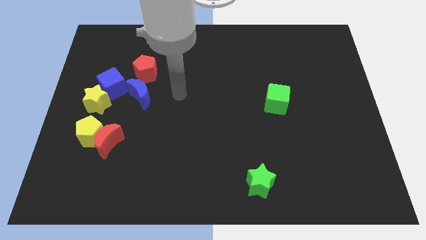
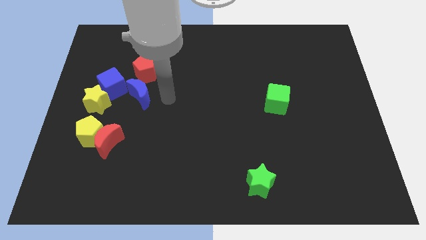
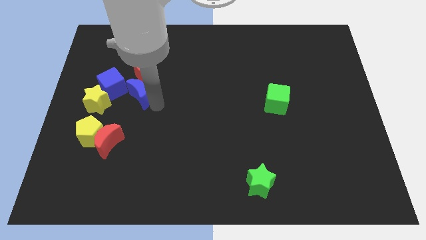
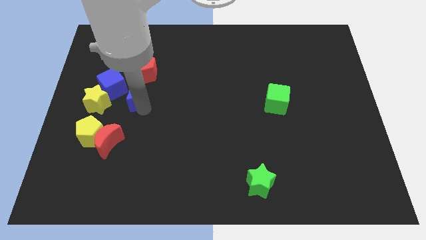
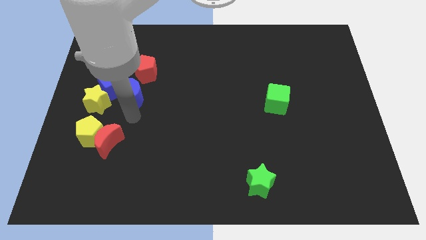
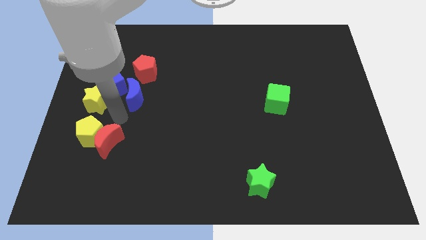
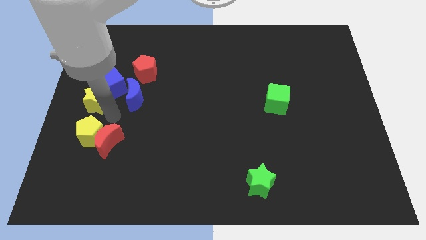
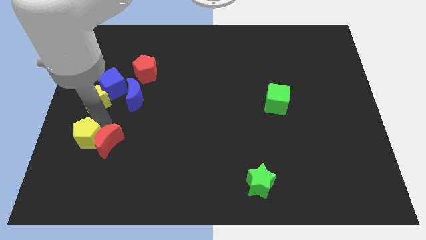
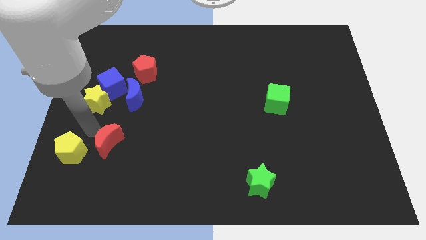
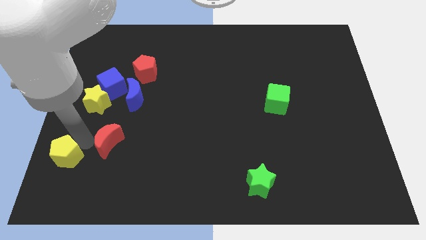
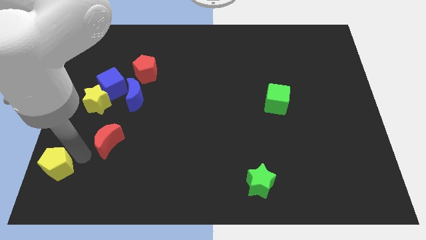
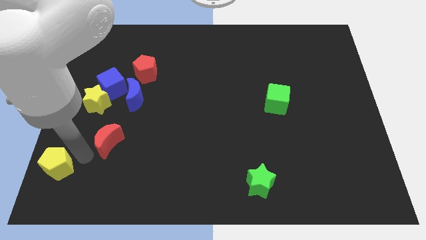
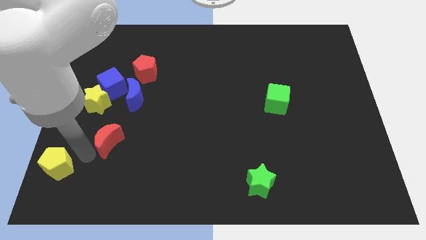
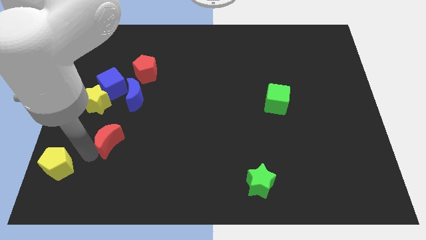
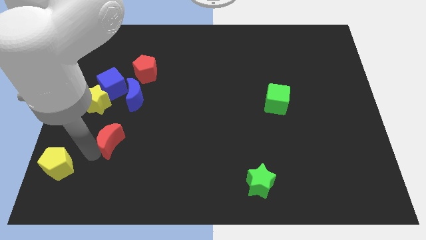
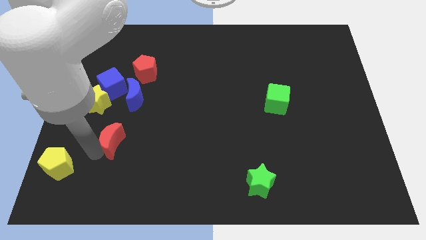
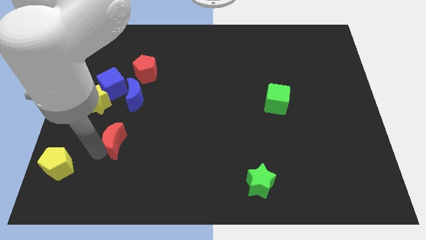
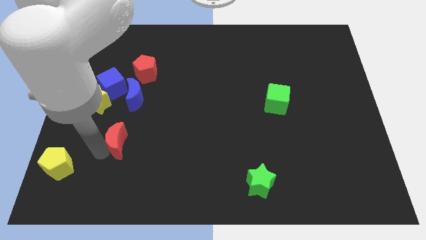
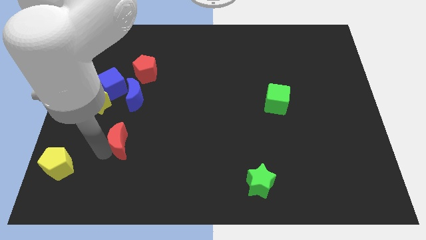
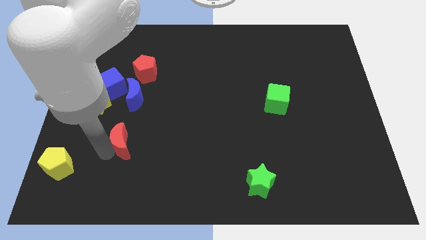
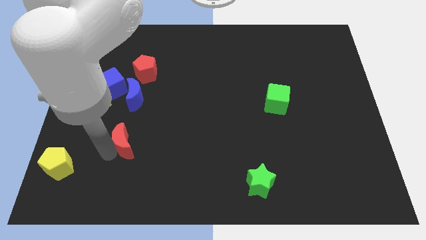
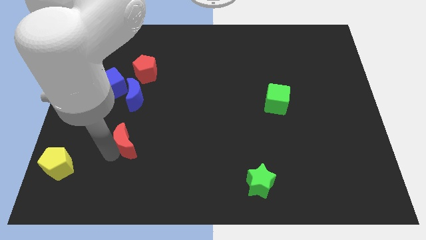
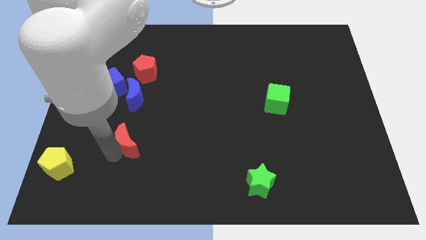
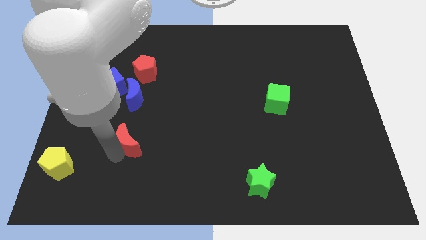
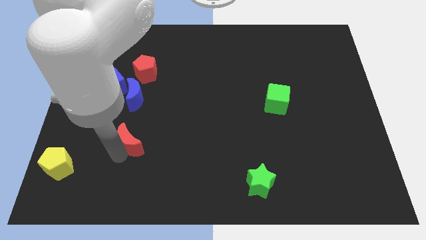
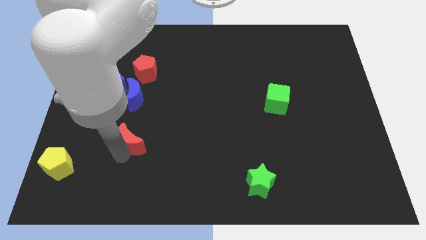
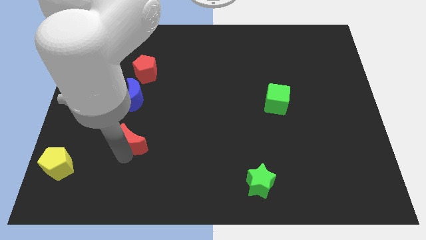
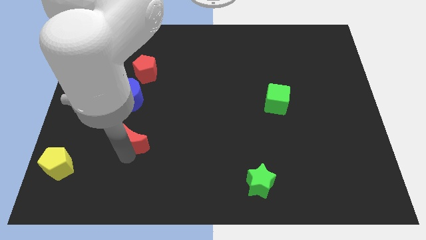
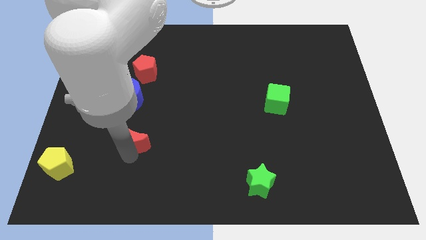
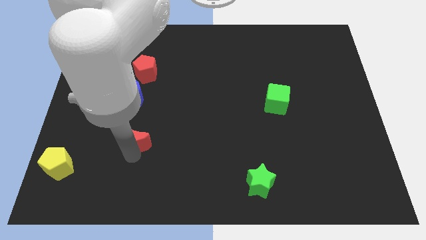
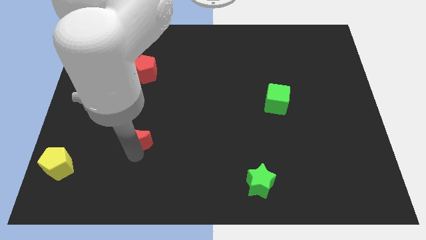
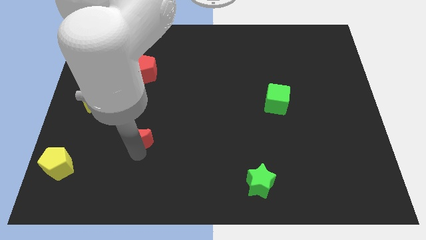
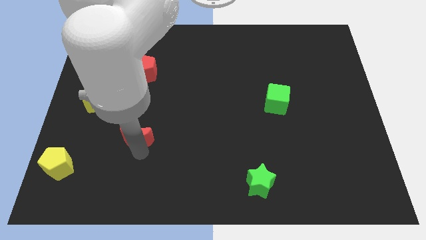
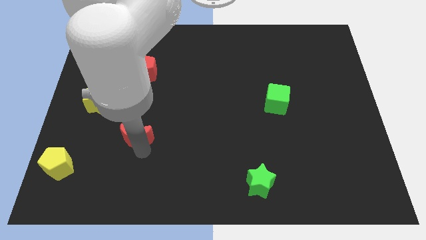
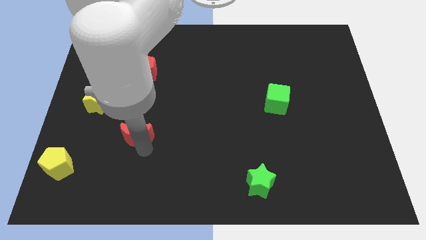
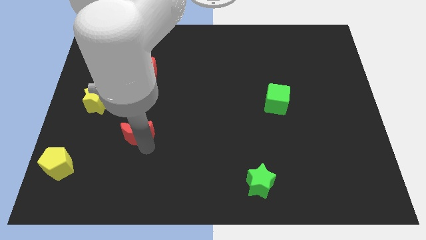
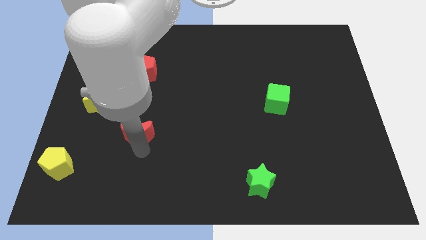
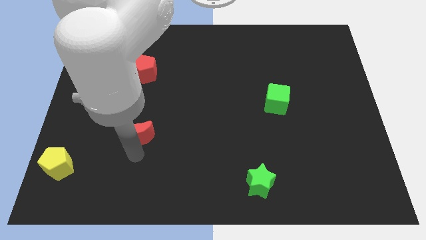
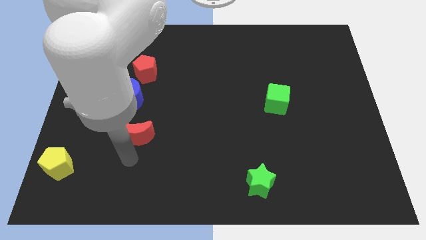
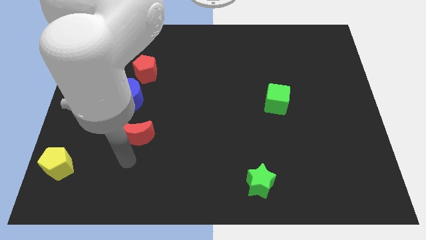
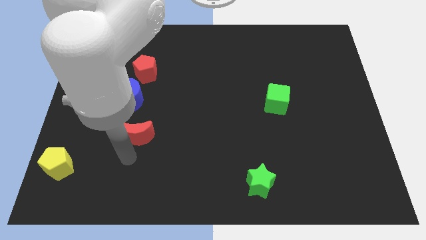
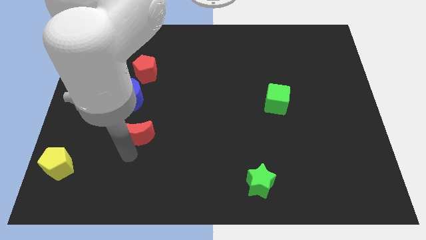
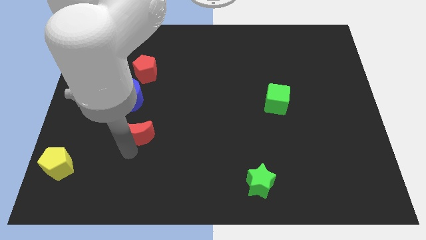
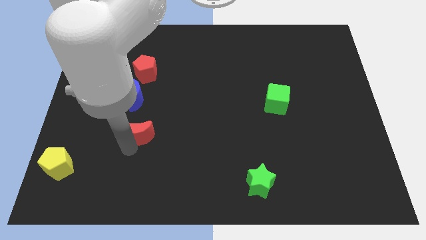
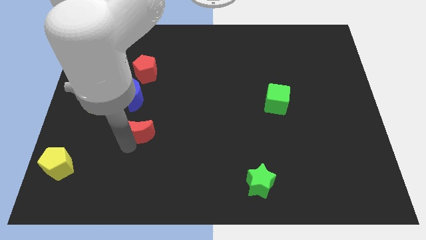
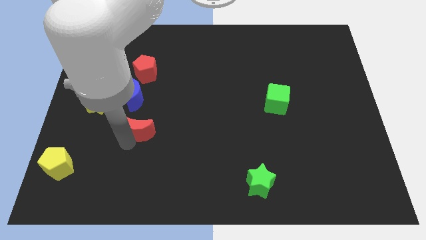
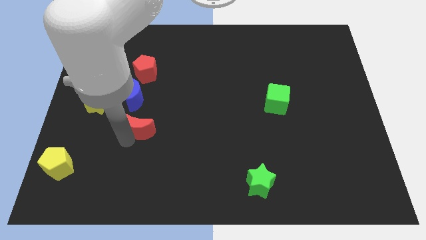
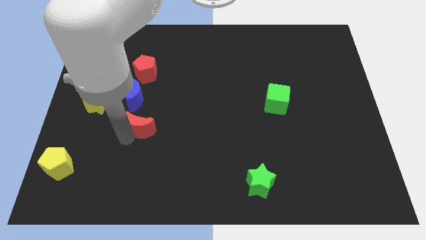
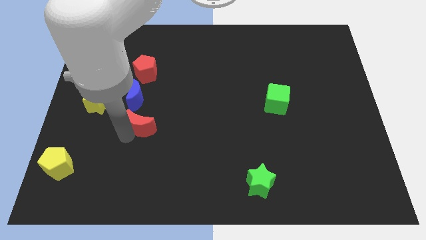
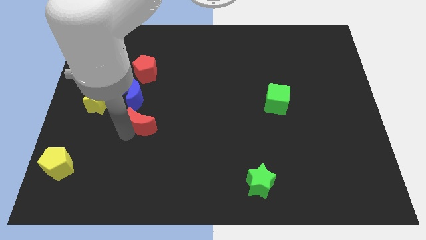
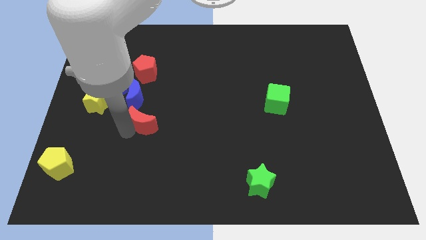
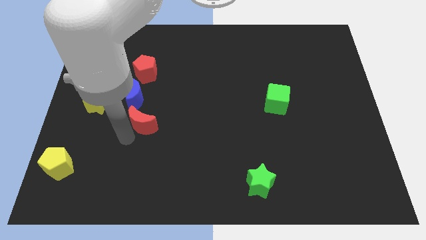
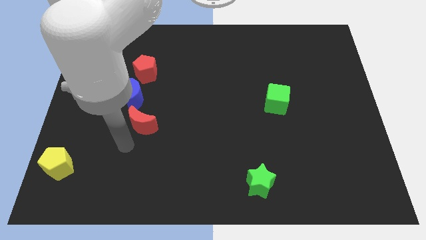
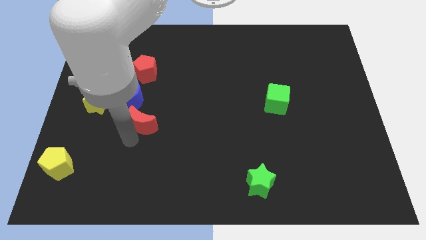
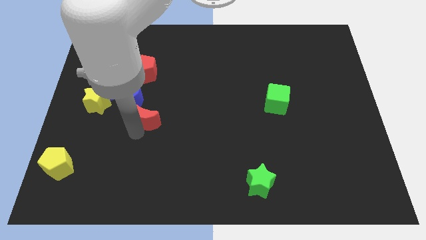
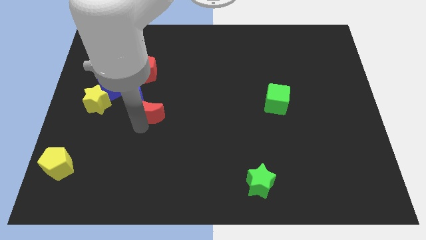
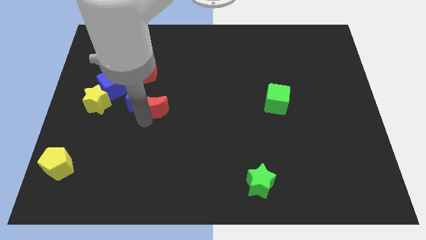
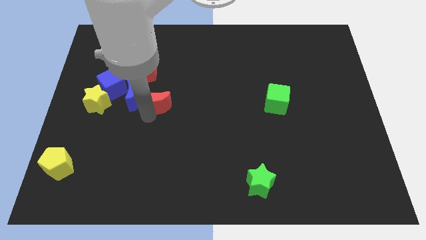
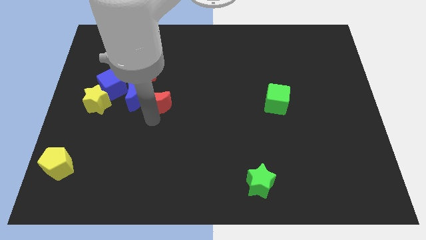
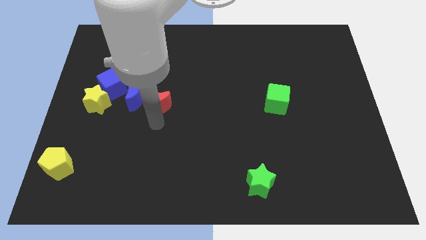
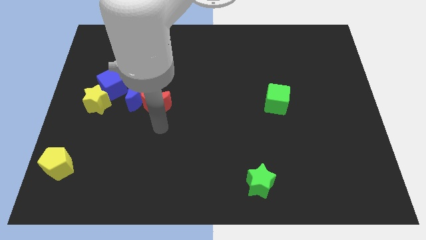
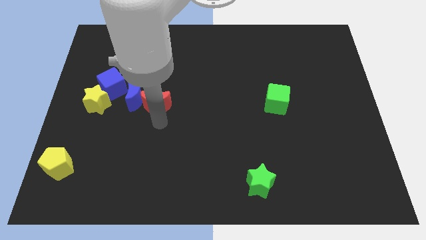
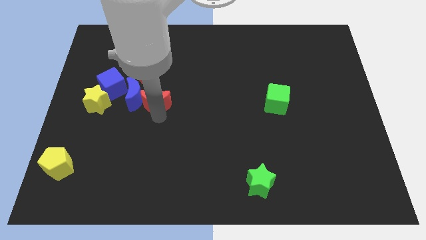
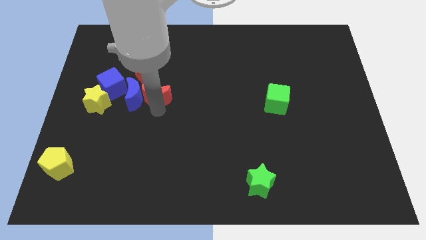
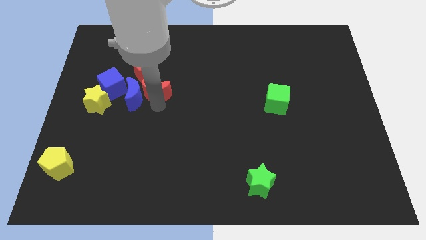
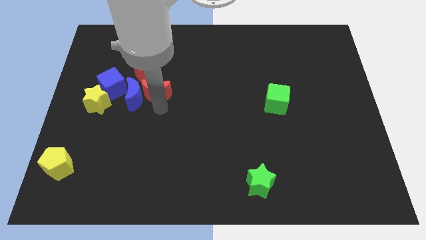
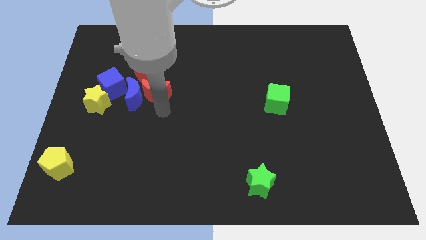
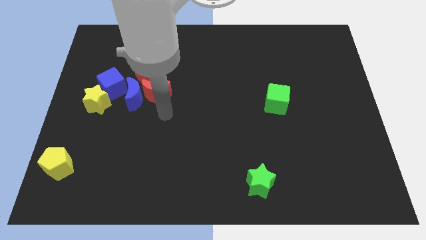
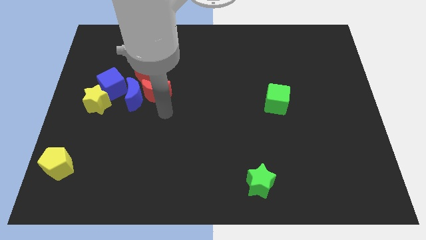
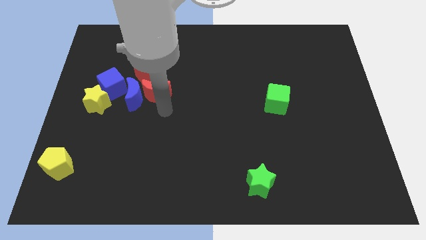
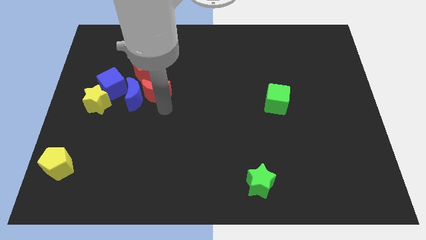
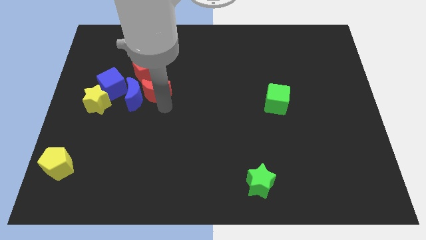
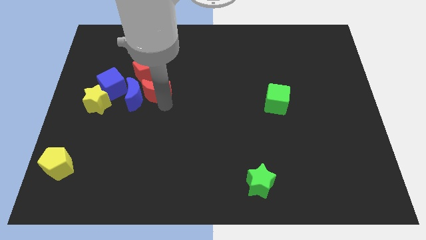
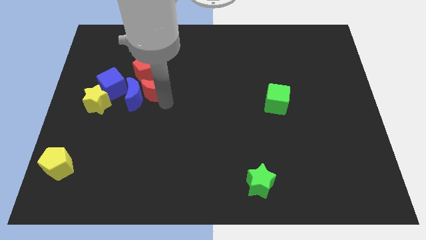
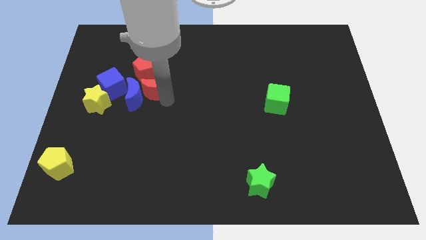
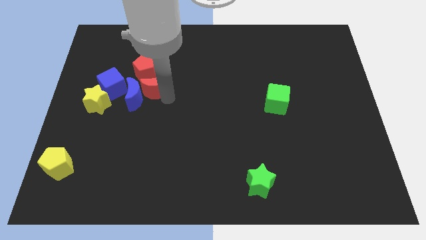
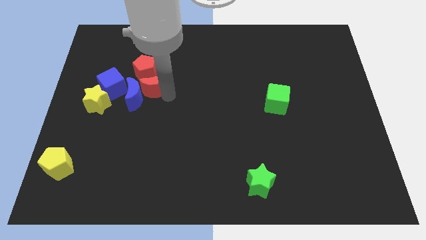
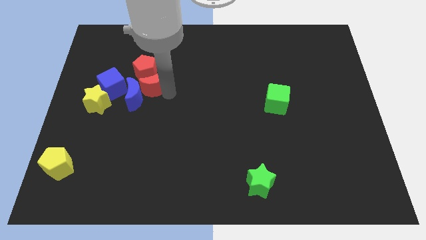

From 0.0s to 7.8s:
move the red moon towards the red pentagon
